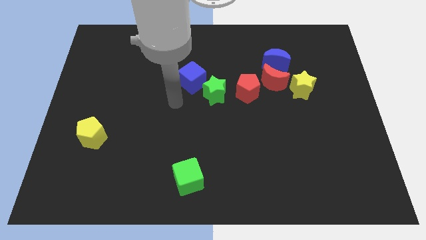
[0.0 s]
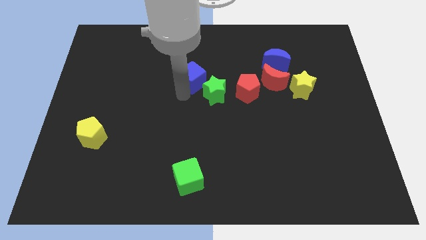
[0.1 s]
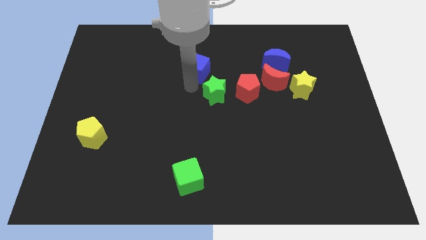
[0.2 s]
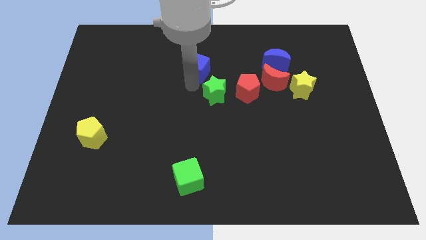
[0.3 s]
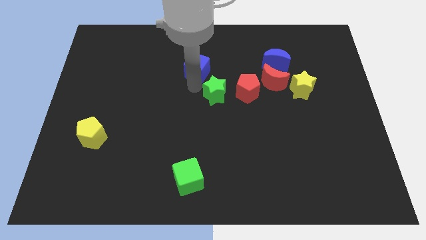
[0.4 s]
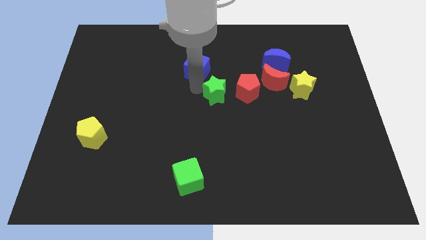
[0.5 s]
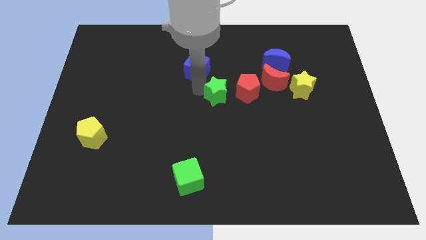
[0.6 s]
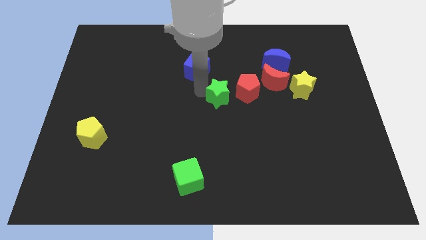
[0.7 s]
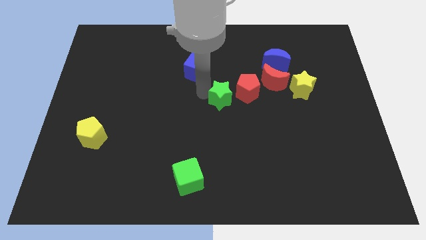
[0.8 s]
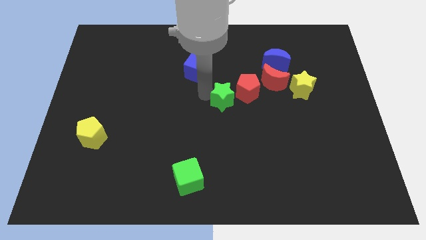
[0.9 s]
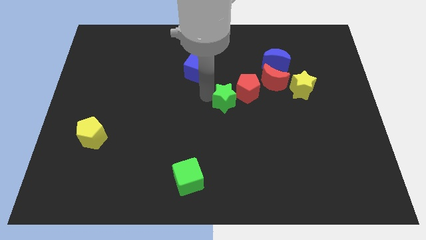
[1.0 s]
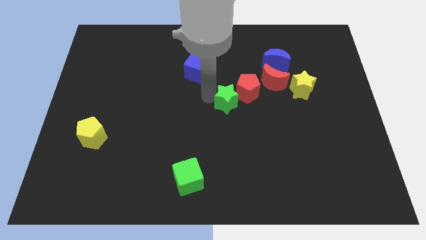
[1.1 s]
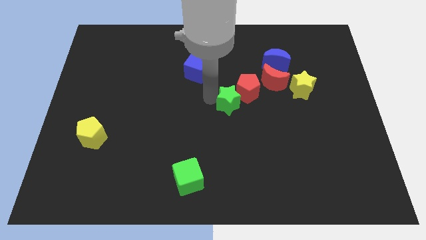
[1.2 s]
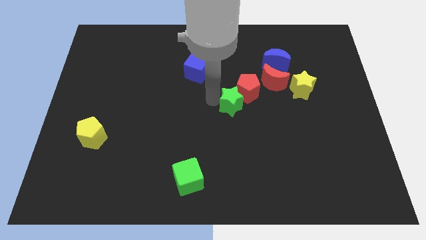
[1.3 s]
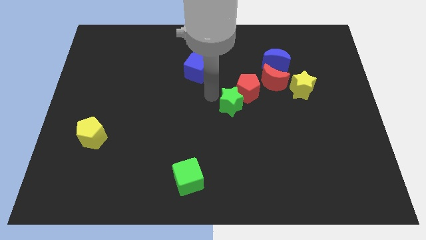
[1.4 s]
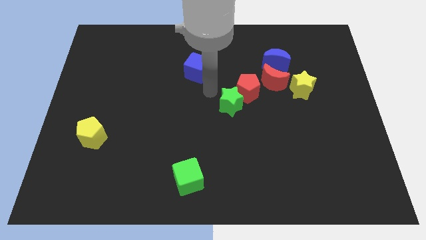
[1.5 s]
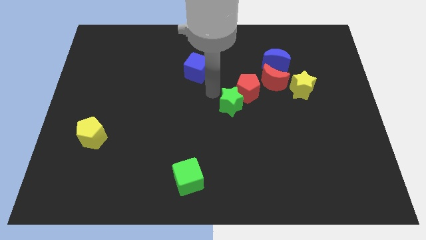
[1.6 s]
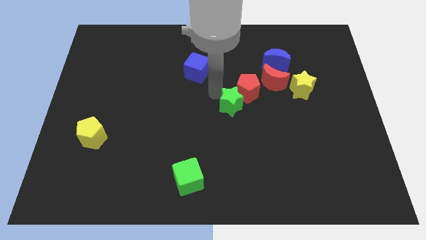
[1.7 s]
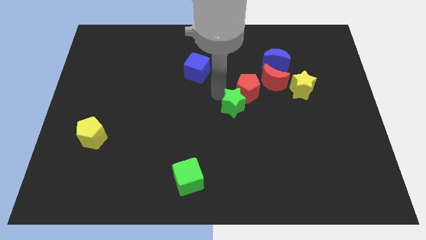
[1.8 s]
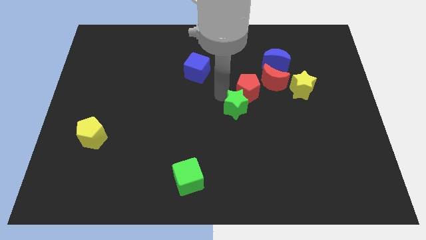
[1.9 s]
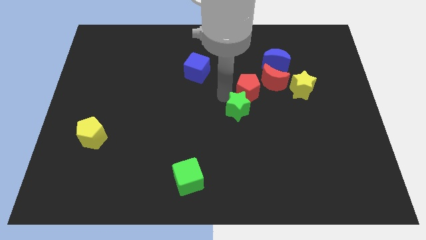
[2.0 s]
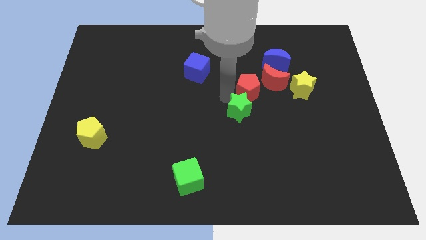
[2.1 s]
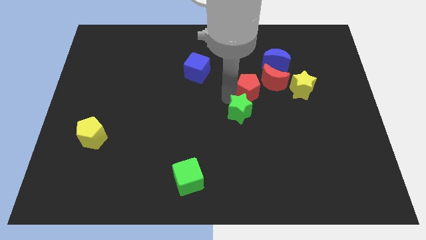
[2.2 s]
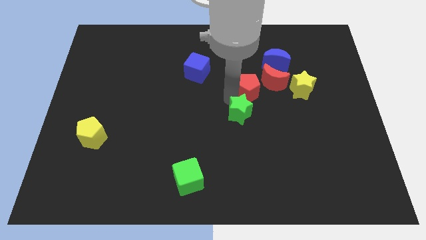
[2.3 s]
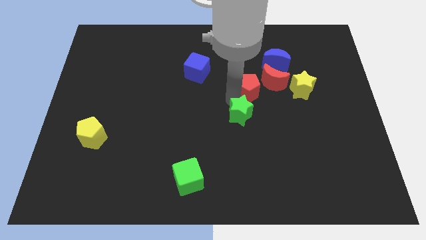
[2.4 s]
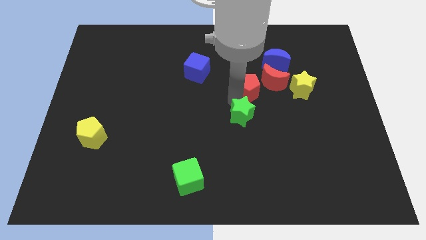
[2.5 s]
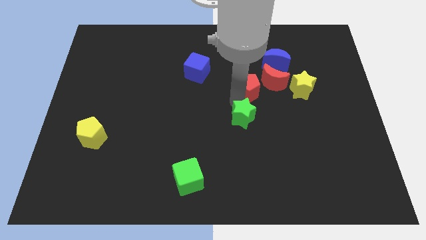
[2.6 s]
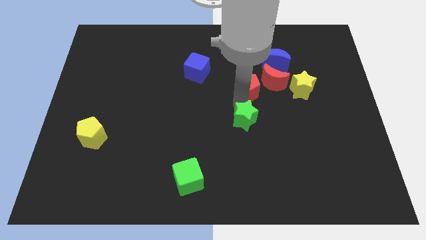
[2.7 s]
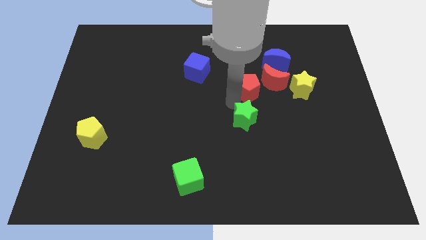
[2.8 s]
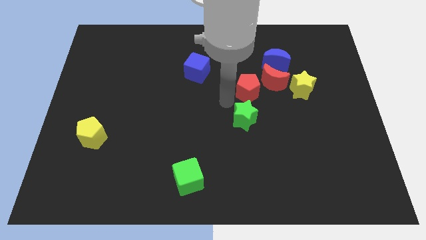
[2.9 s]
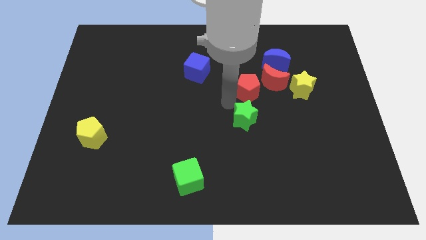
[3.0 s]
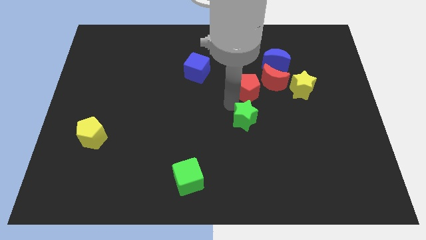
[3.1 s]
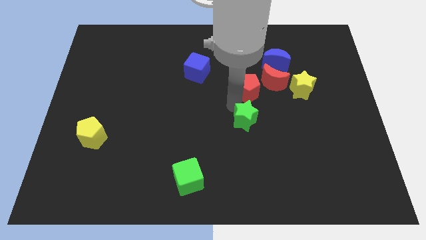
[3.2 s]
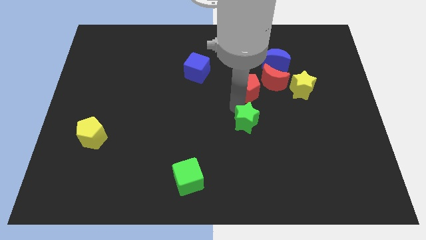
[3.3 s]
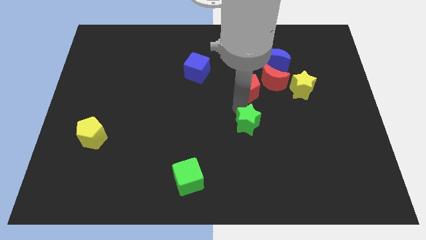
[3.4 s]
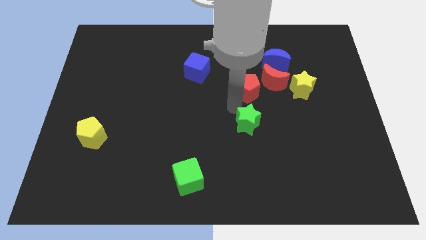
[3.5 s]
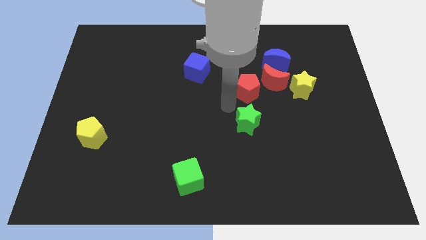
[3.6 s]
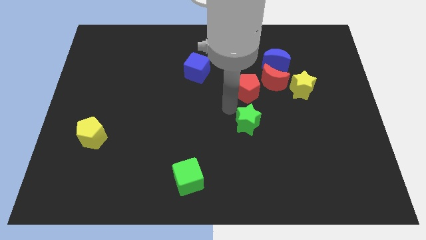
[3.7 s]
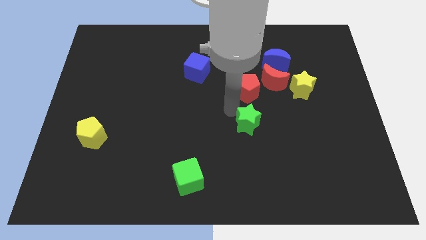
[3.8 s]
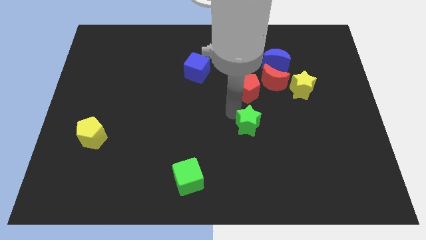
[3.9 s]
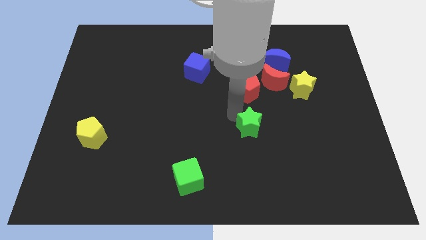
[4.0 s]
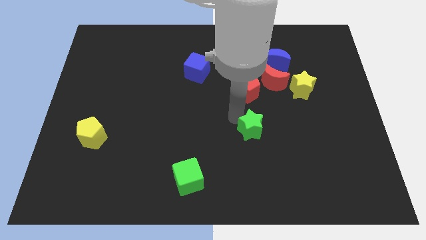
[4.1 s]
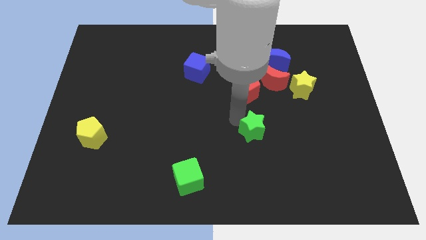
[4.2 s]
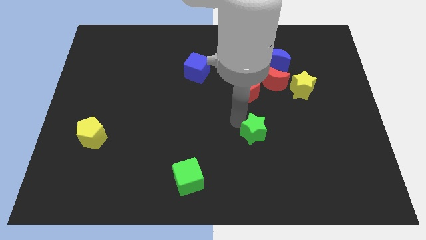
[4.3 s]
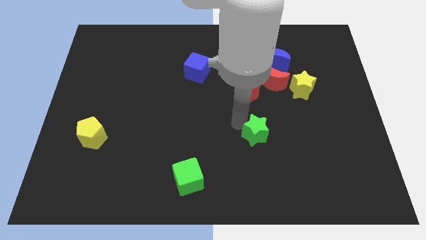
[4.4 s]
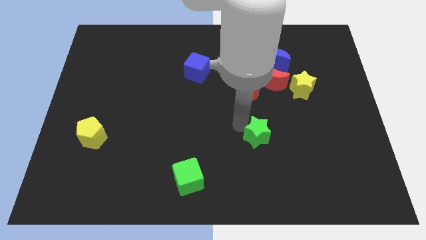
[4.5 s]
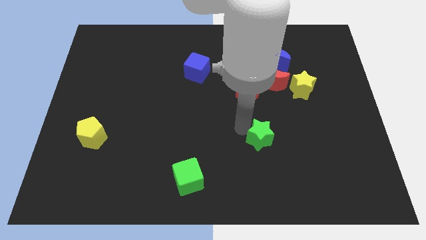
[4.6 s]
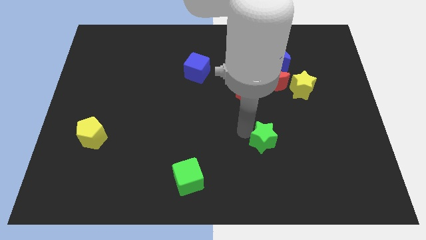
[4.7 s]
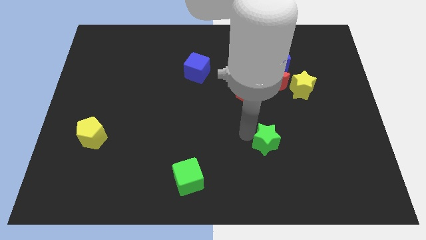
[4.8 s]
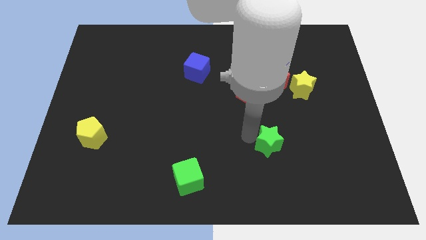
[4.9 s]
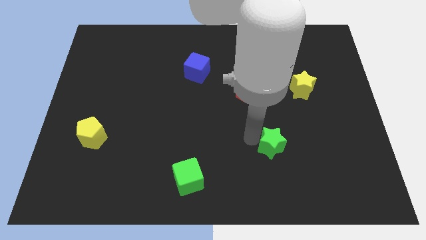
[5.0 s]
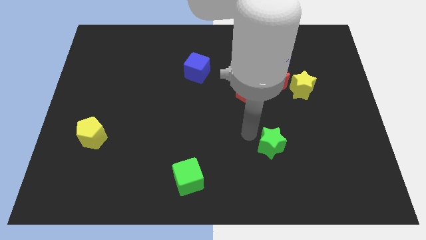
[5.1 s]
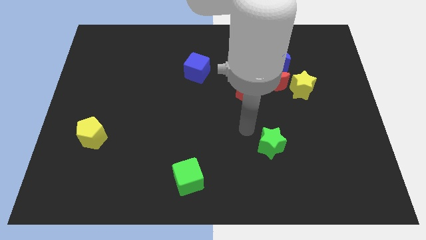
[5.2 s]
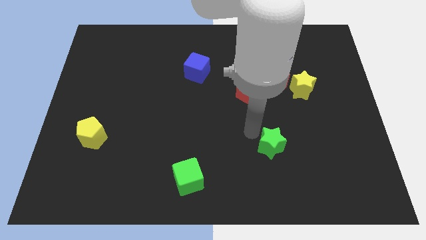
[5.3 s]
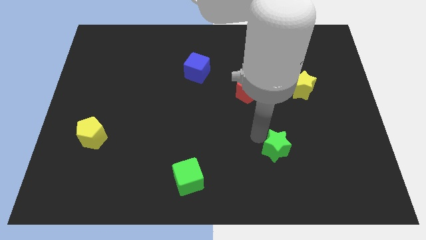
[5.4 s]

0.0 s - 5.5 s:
push the green star downwards and right diagonally

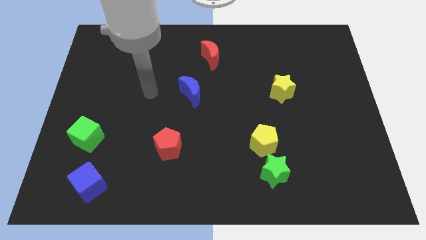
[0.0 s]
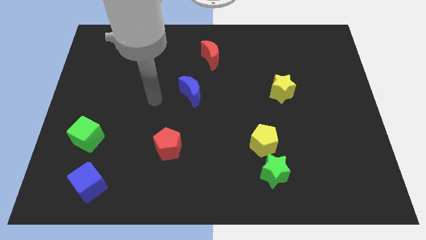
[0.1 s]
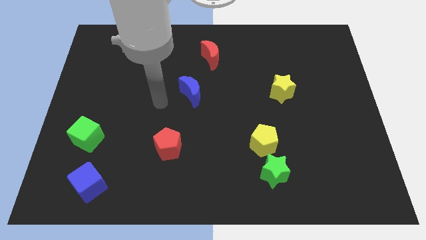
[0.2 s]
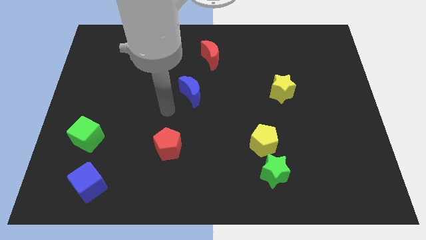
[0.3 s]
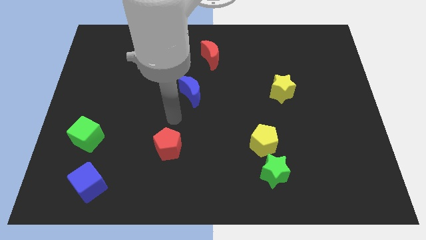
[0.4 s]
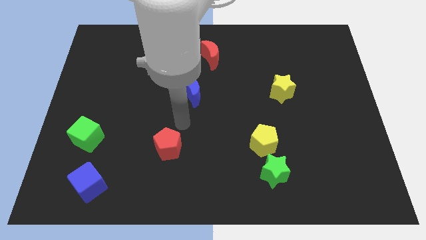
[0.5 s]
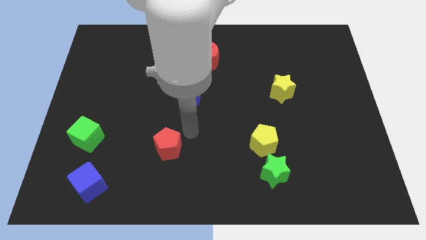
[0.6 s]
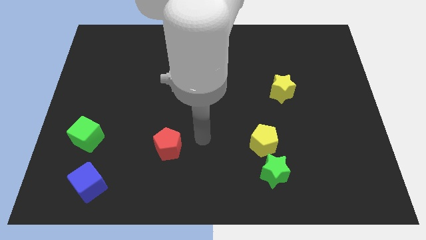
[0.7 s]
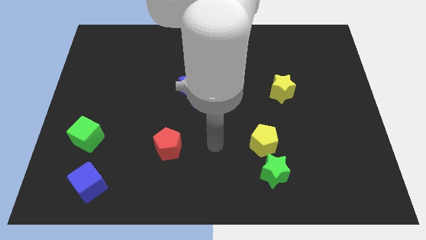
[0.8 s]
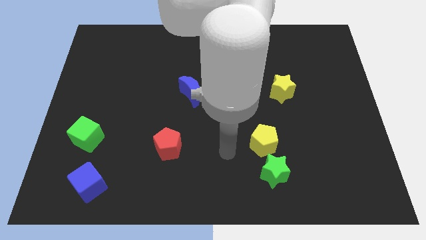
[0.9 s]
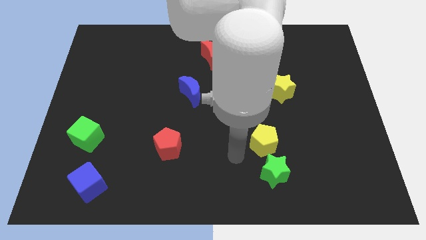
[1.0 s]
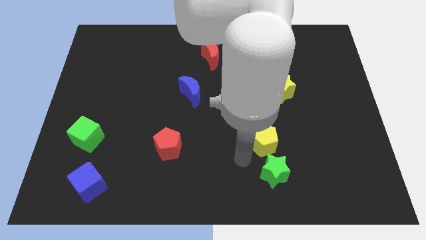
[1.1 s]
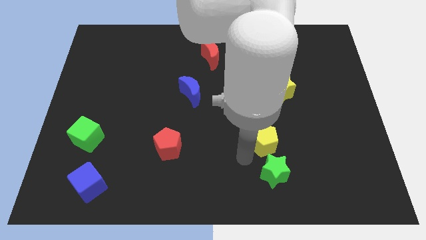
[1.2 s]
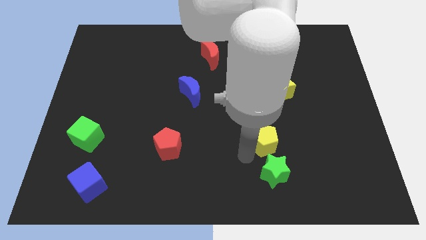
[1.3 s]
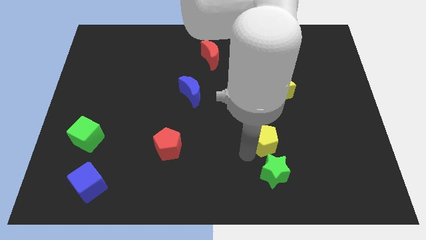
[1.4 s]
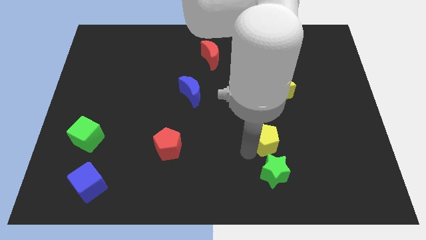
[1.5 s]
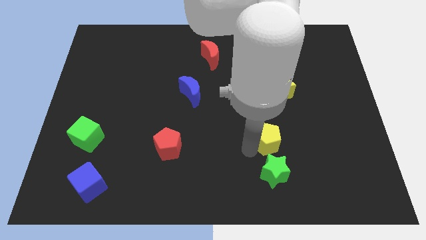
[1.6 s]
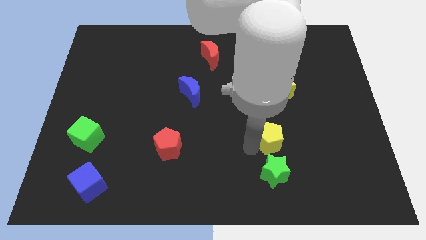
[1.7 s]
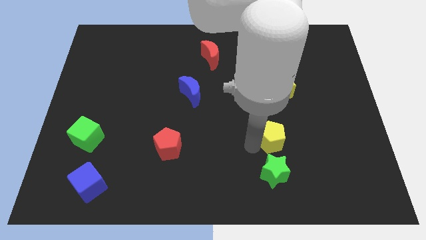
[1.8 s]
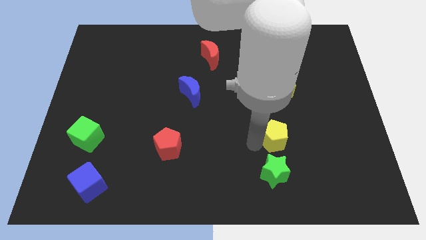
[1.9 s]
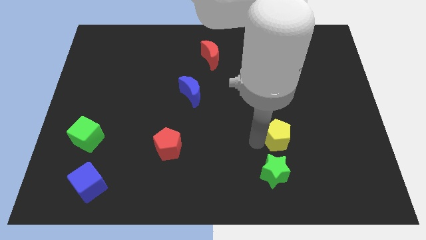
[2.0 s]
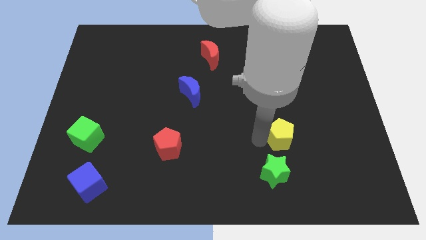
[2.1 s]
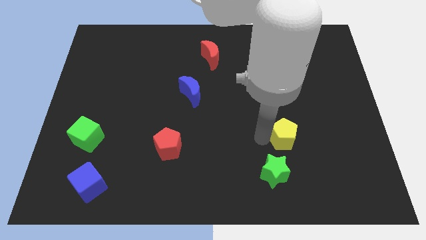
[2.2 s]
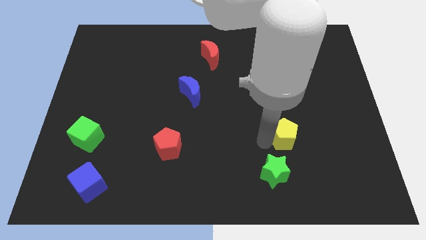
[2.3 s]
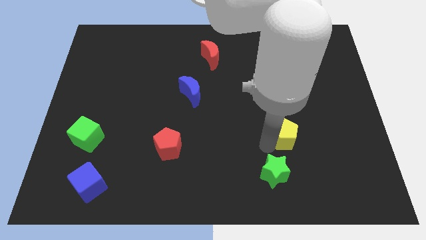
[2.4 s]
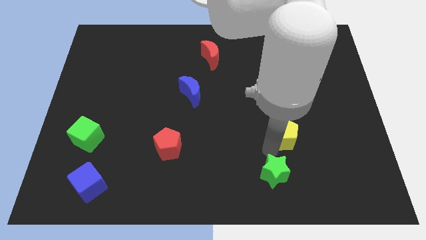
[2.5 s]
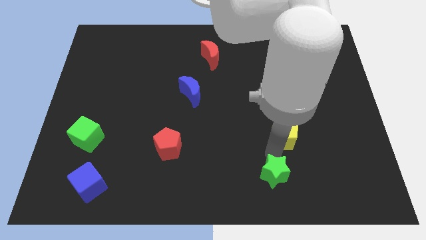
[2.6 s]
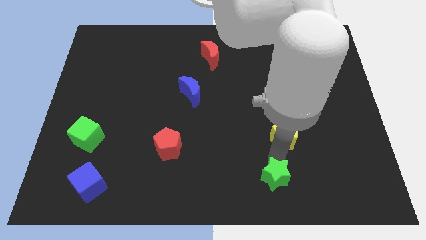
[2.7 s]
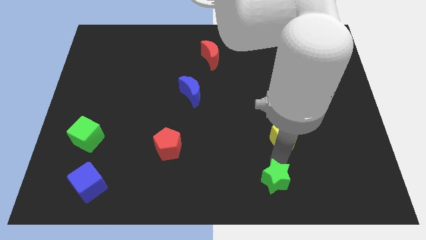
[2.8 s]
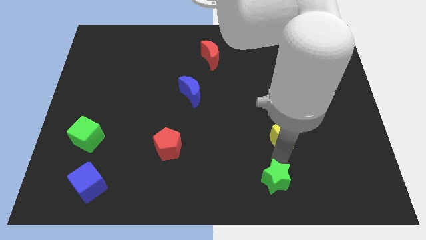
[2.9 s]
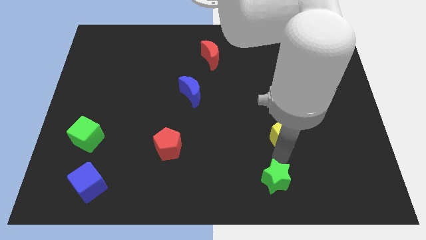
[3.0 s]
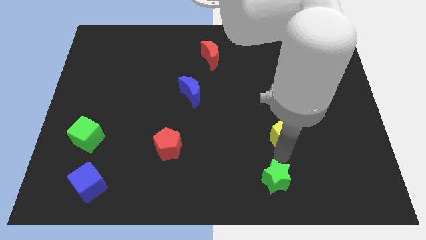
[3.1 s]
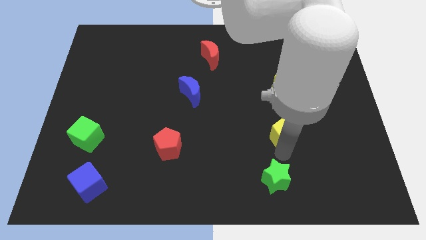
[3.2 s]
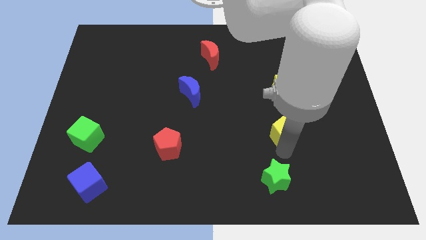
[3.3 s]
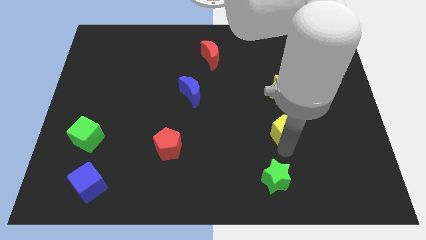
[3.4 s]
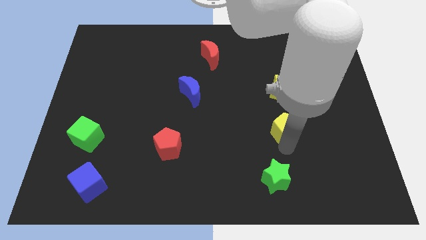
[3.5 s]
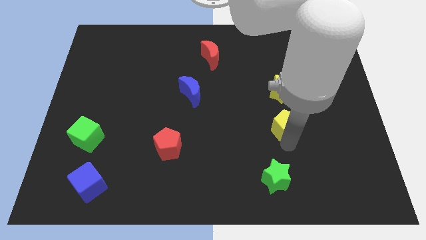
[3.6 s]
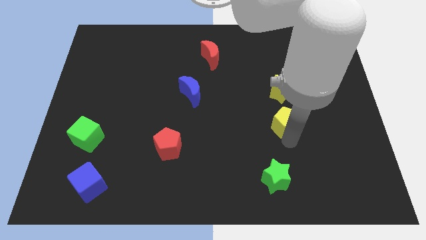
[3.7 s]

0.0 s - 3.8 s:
move the yellow pentagon a little upwards and right
